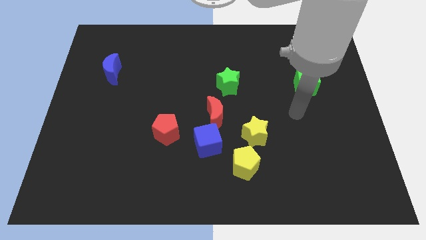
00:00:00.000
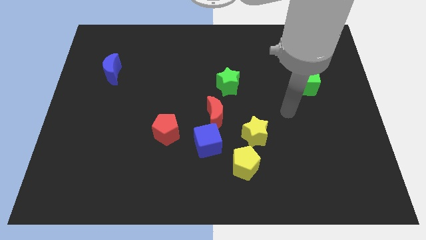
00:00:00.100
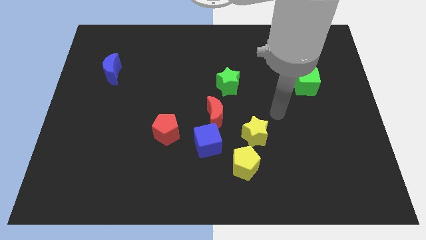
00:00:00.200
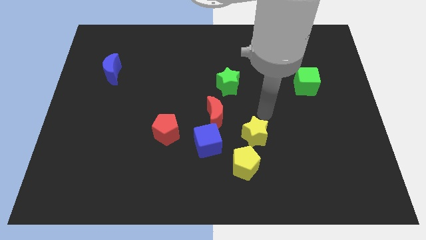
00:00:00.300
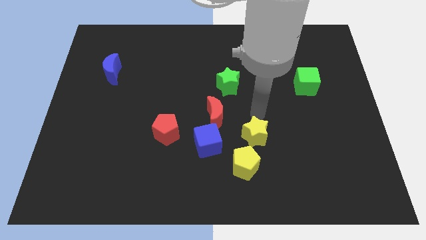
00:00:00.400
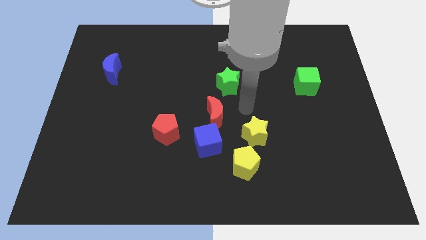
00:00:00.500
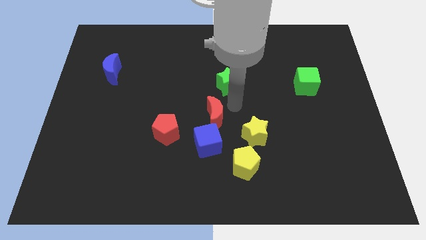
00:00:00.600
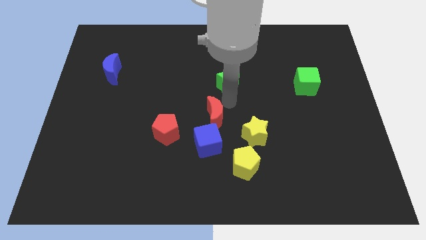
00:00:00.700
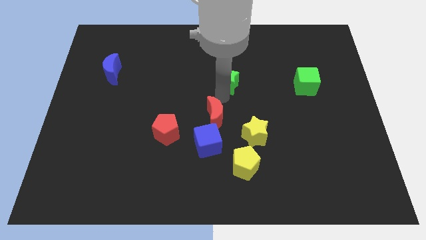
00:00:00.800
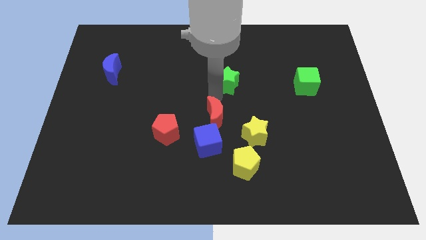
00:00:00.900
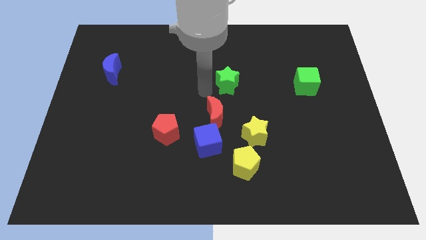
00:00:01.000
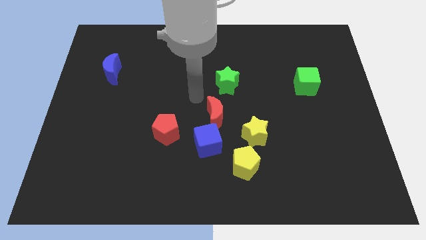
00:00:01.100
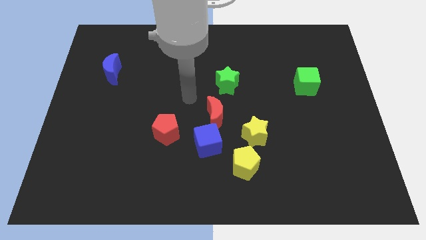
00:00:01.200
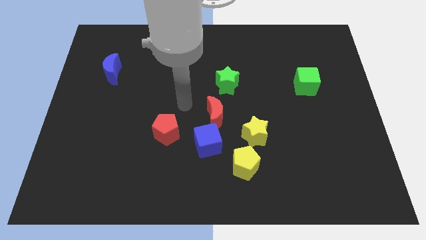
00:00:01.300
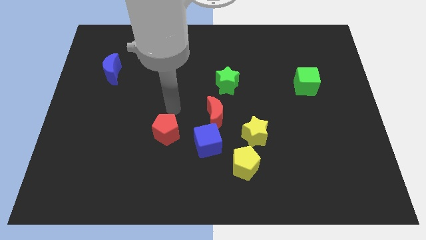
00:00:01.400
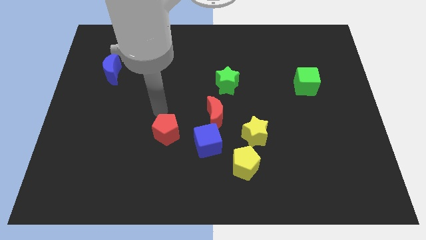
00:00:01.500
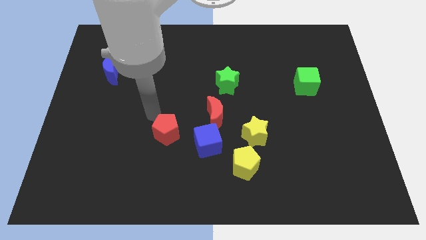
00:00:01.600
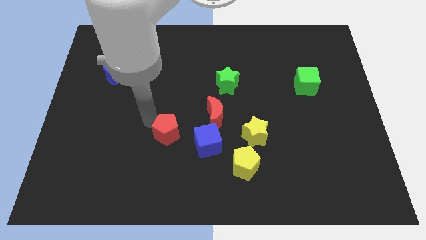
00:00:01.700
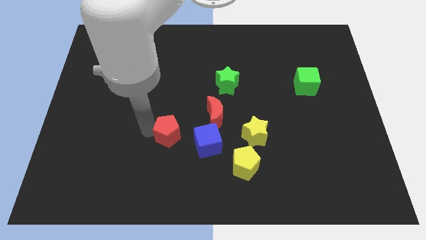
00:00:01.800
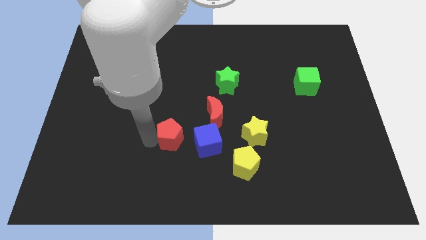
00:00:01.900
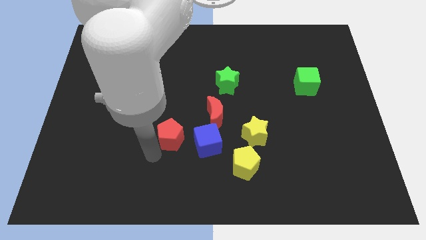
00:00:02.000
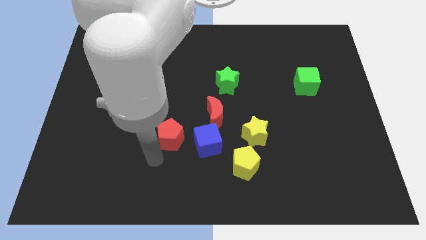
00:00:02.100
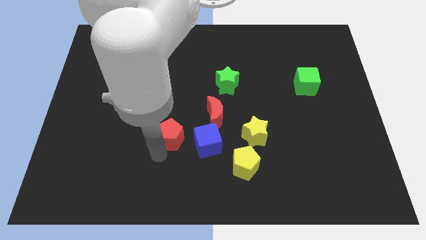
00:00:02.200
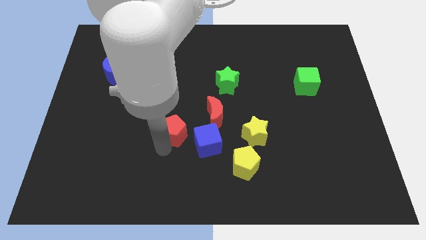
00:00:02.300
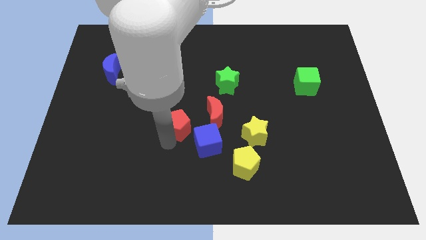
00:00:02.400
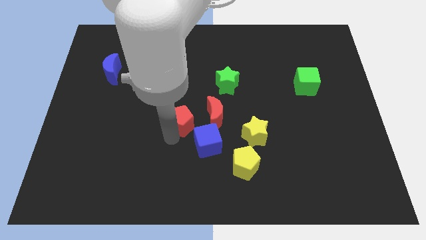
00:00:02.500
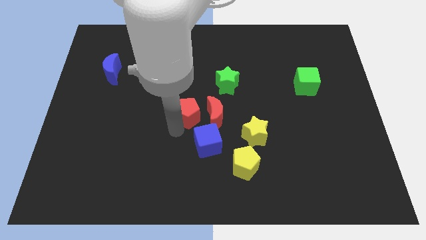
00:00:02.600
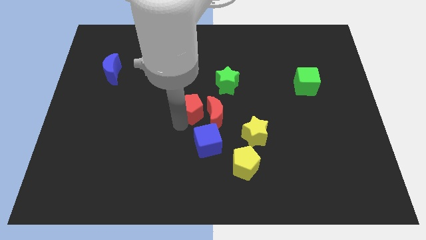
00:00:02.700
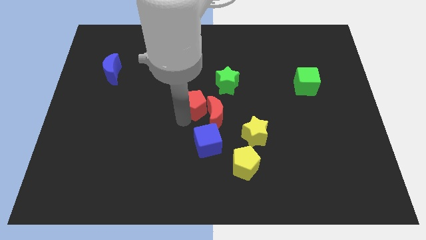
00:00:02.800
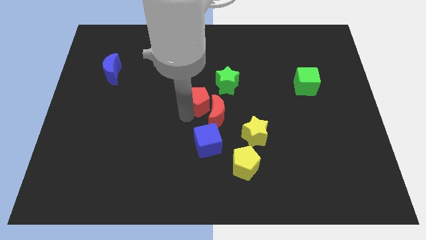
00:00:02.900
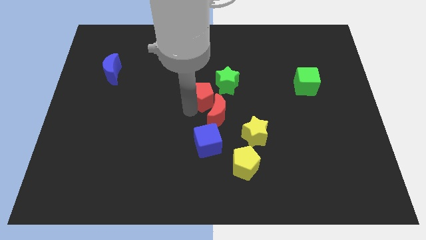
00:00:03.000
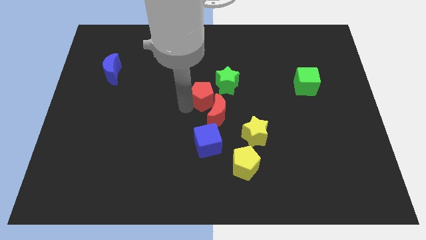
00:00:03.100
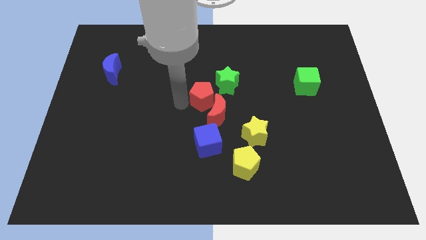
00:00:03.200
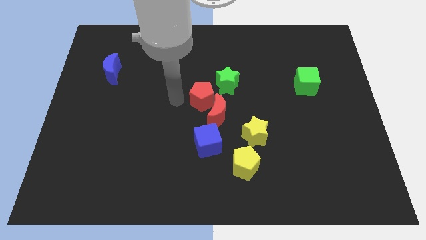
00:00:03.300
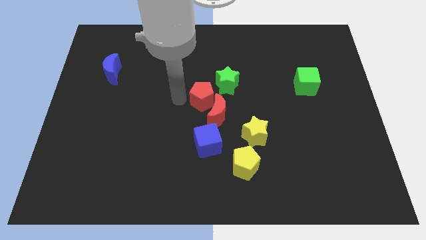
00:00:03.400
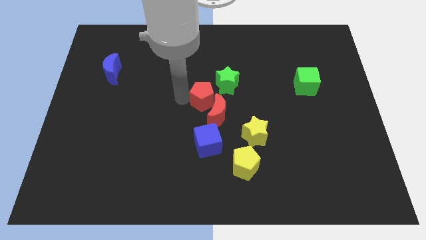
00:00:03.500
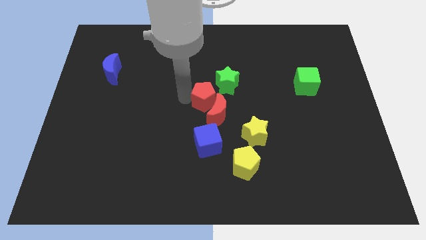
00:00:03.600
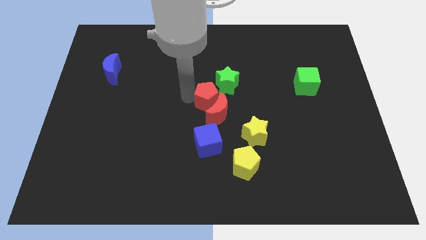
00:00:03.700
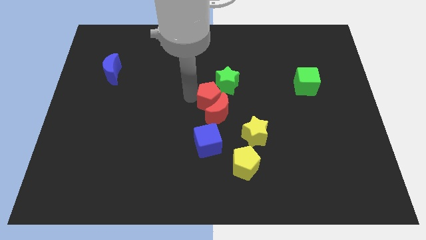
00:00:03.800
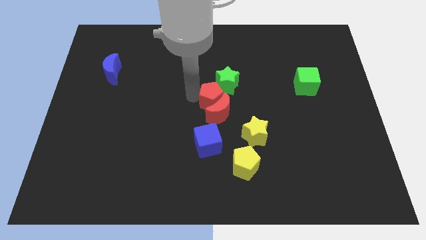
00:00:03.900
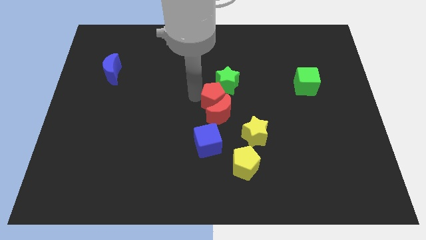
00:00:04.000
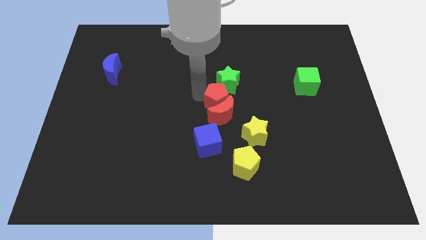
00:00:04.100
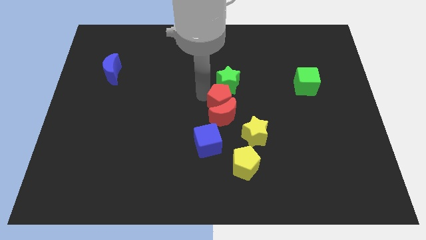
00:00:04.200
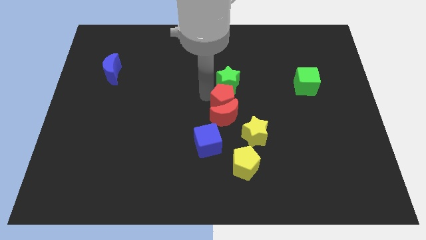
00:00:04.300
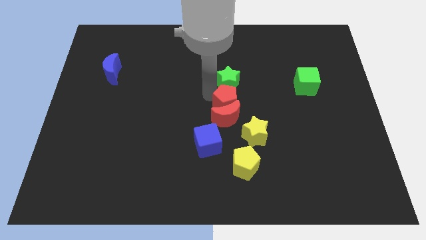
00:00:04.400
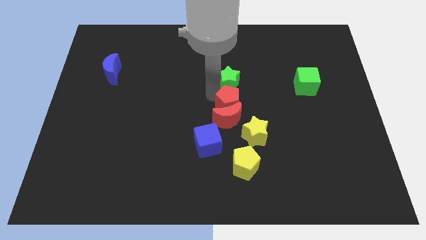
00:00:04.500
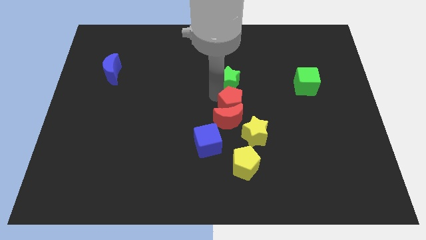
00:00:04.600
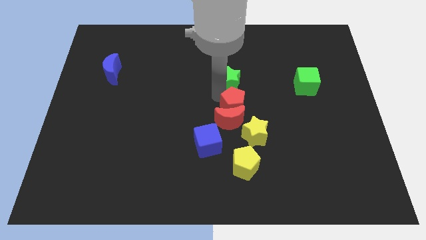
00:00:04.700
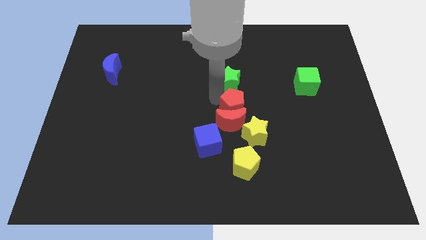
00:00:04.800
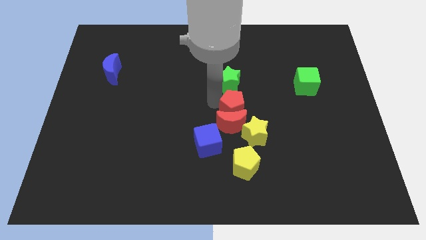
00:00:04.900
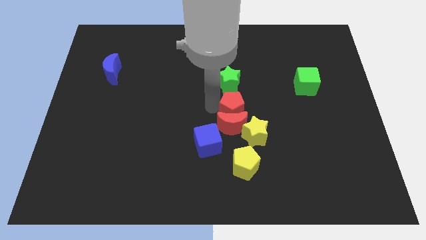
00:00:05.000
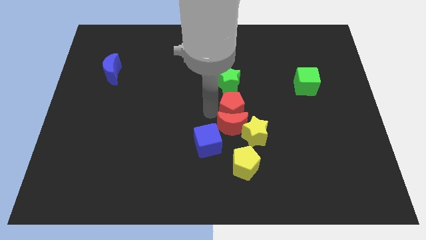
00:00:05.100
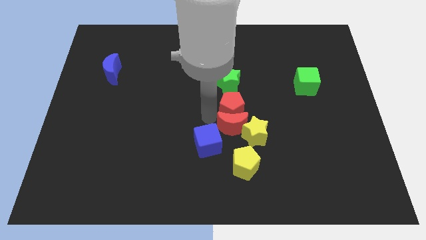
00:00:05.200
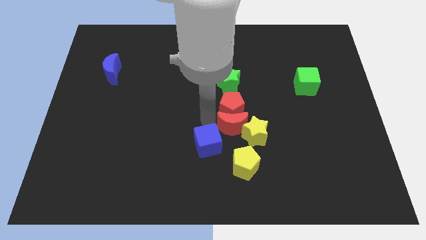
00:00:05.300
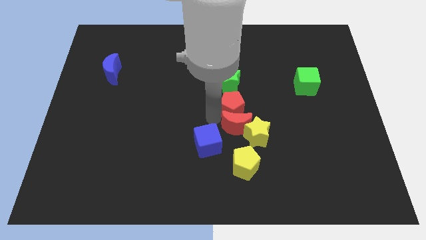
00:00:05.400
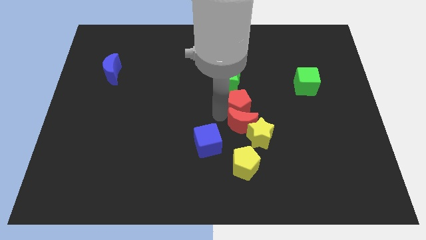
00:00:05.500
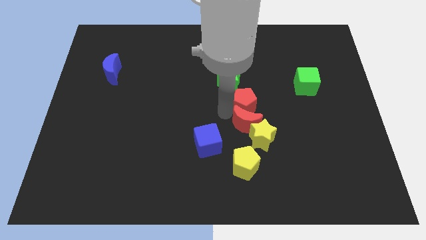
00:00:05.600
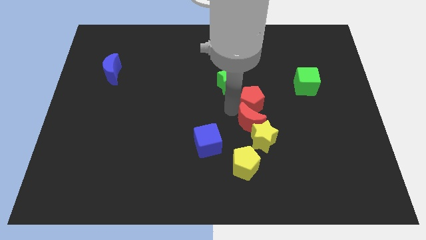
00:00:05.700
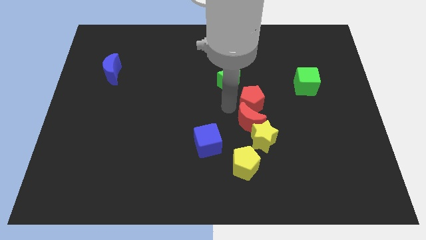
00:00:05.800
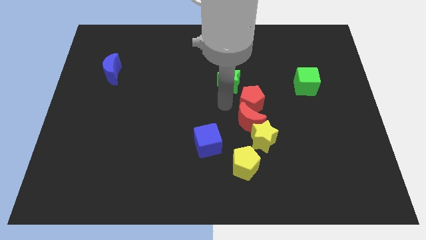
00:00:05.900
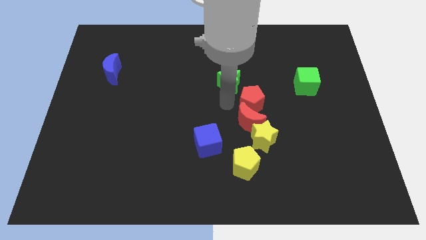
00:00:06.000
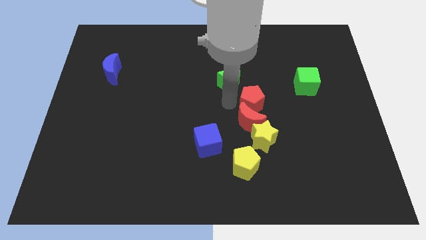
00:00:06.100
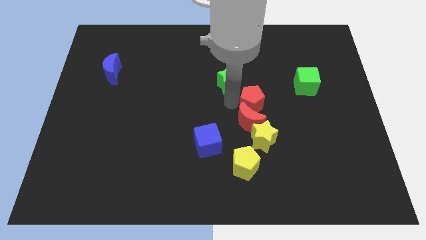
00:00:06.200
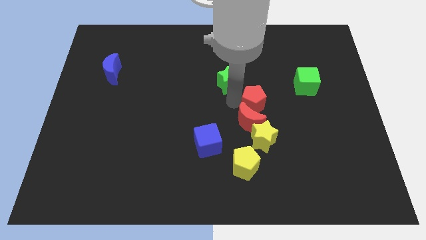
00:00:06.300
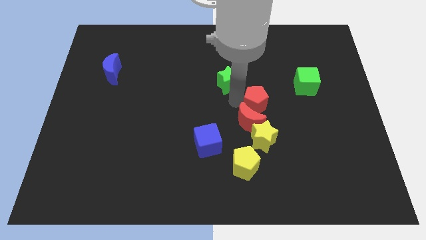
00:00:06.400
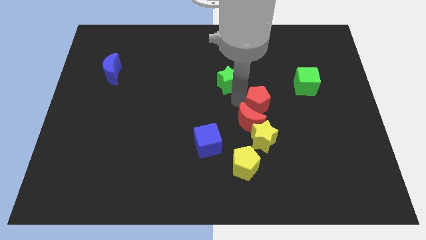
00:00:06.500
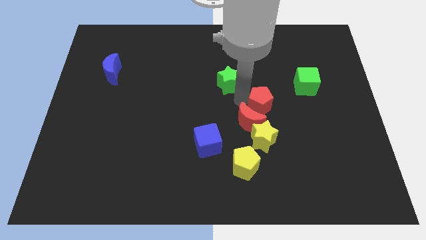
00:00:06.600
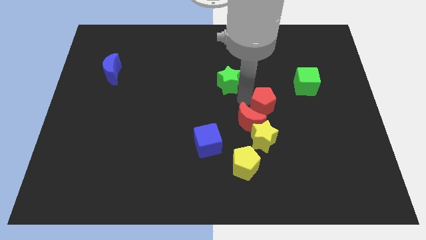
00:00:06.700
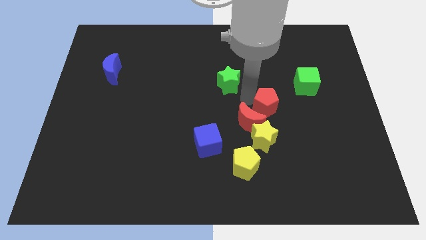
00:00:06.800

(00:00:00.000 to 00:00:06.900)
put the red pentagon to the bottom left of the green cube
